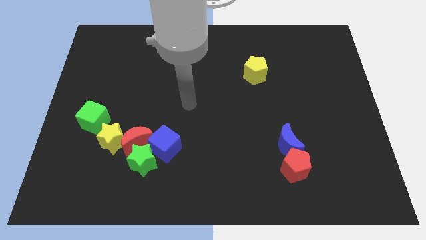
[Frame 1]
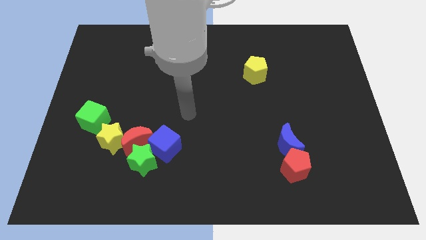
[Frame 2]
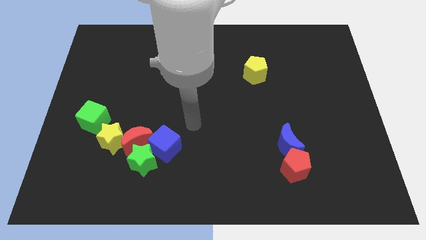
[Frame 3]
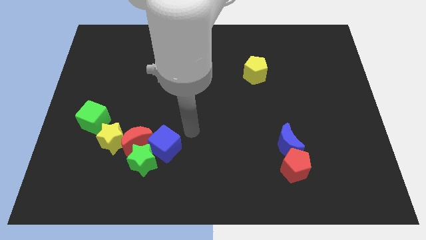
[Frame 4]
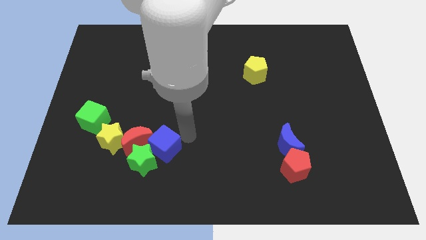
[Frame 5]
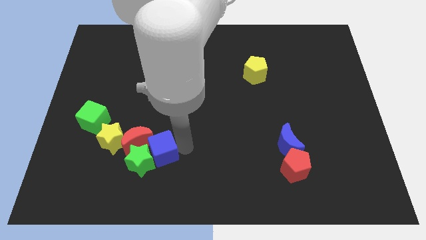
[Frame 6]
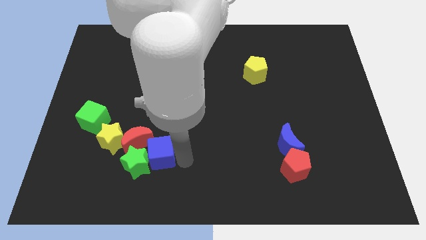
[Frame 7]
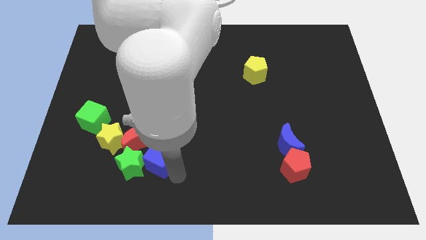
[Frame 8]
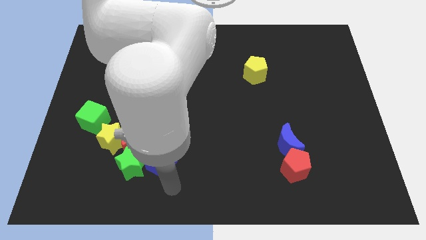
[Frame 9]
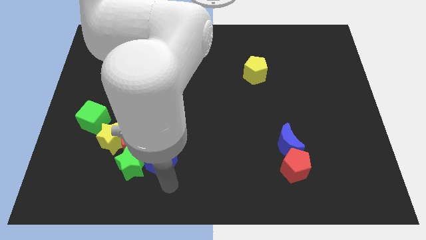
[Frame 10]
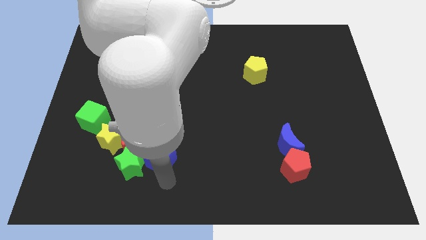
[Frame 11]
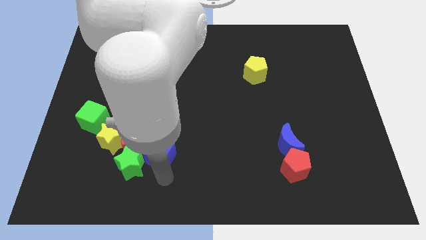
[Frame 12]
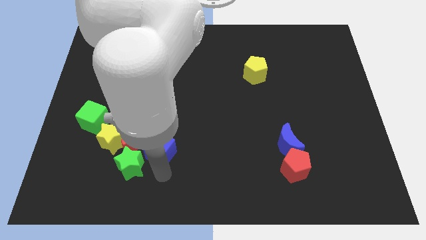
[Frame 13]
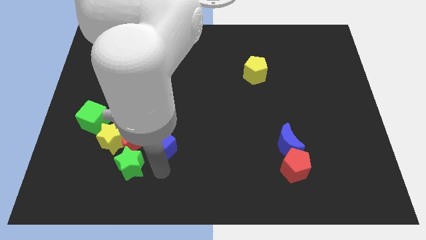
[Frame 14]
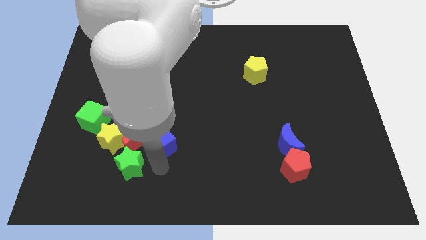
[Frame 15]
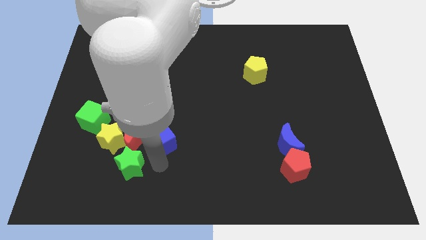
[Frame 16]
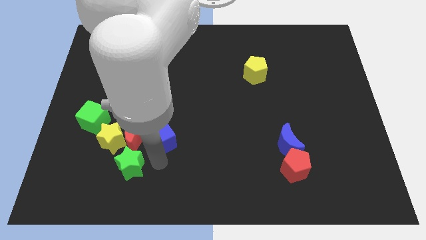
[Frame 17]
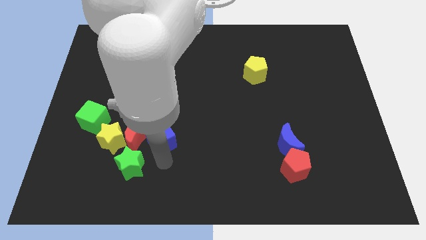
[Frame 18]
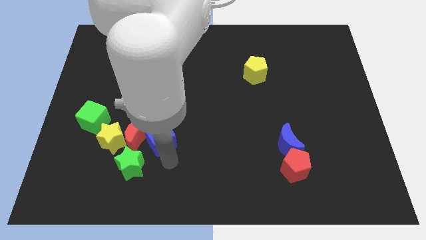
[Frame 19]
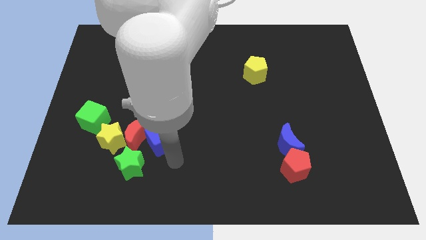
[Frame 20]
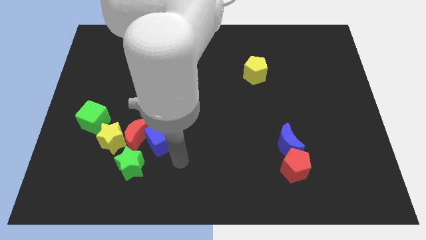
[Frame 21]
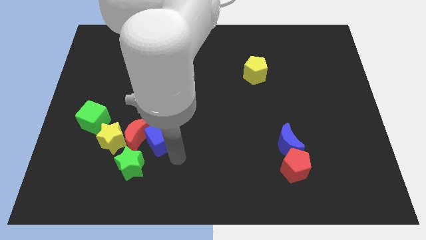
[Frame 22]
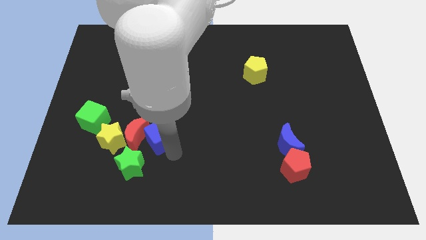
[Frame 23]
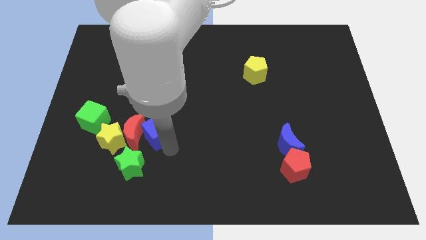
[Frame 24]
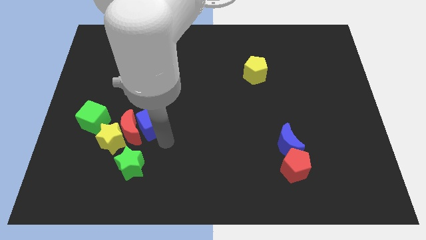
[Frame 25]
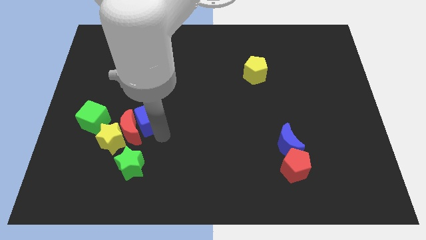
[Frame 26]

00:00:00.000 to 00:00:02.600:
slightly push the blue cube upwards and left diagonally

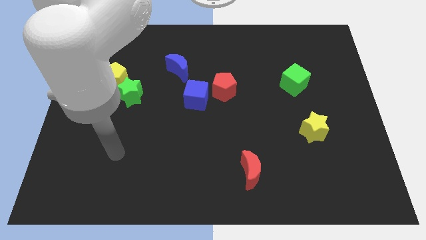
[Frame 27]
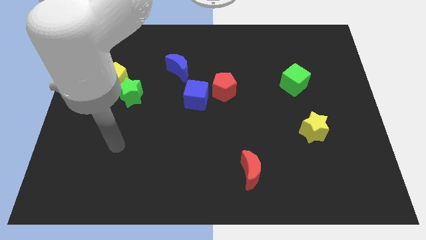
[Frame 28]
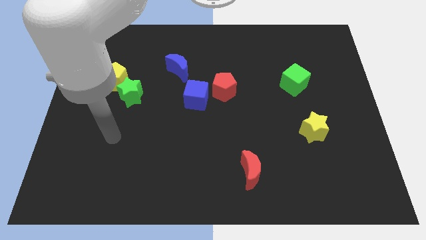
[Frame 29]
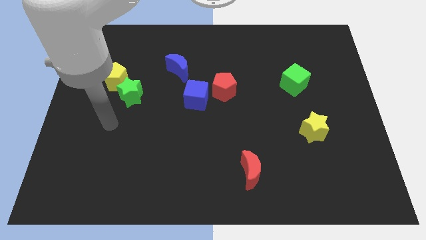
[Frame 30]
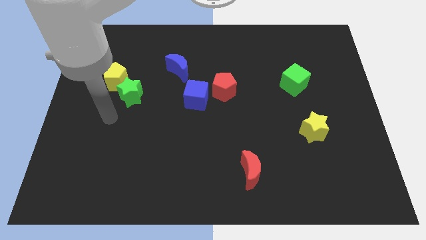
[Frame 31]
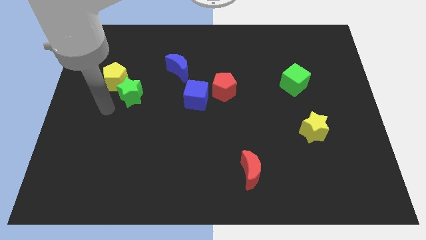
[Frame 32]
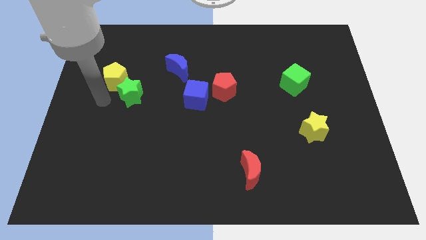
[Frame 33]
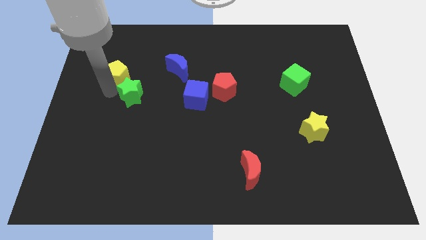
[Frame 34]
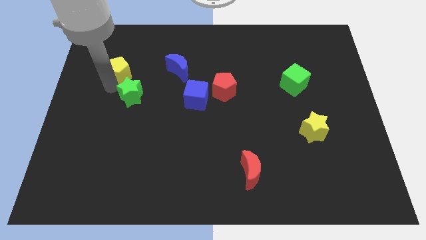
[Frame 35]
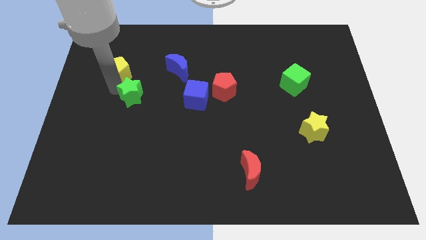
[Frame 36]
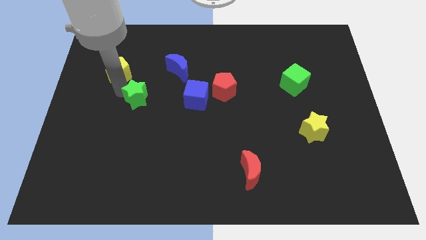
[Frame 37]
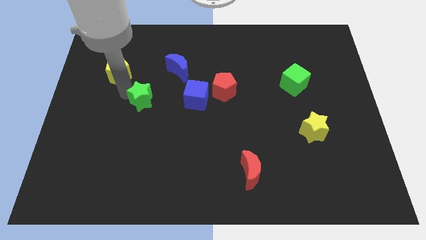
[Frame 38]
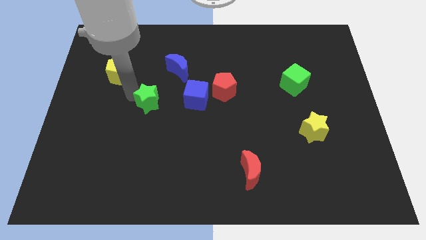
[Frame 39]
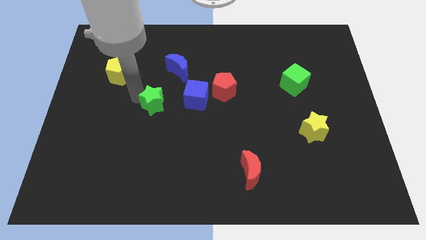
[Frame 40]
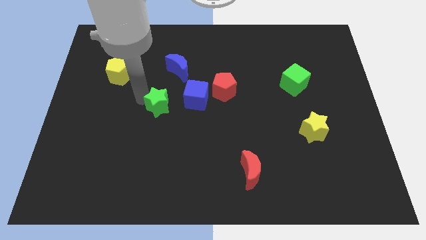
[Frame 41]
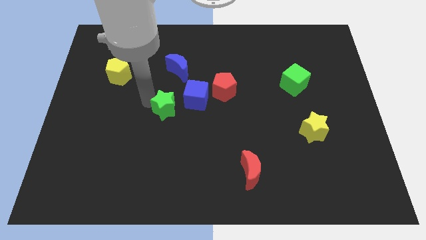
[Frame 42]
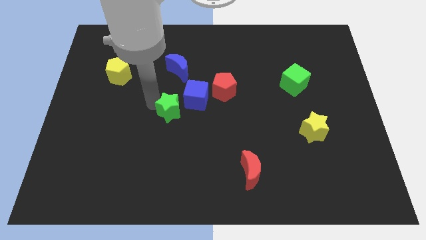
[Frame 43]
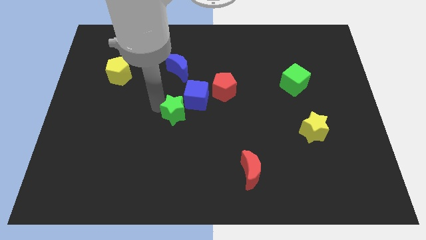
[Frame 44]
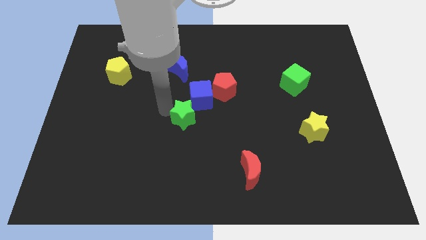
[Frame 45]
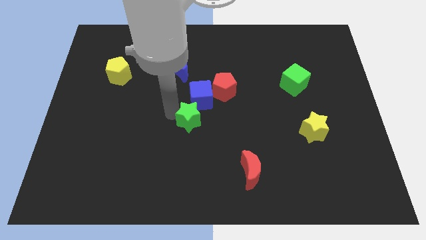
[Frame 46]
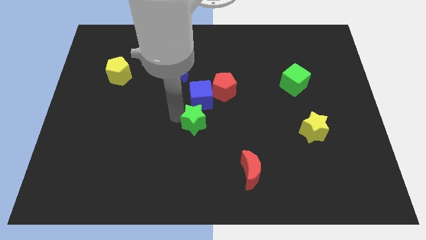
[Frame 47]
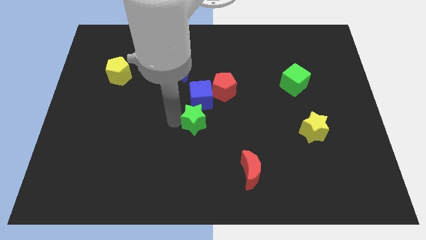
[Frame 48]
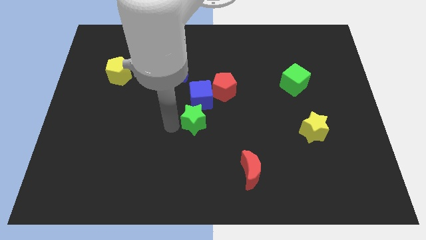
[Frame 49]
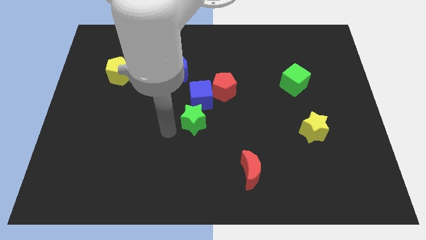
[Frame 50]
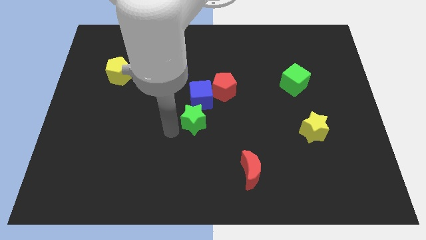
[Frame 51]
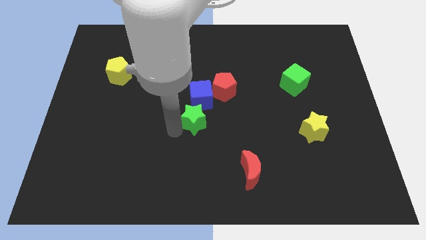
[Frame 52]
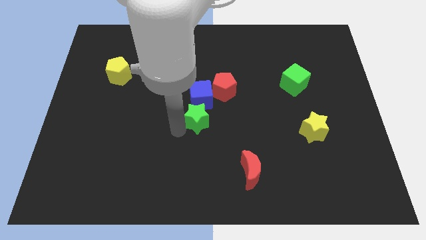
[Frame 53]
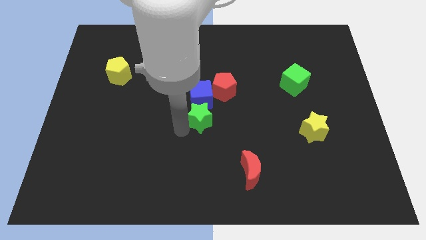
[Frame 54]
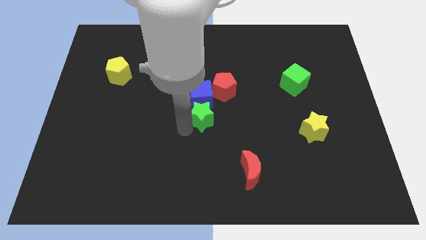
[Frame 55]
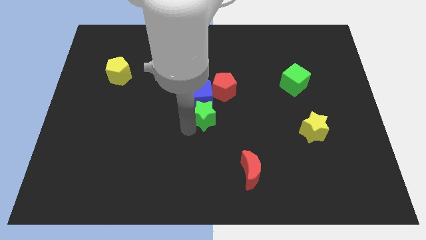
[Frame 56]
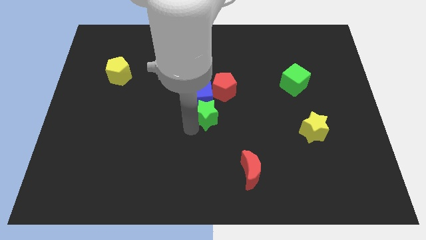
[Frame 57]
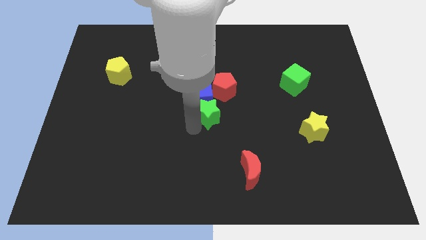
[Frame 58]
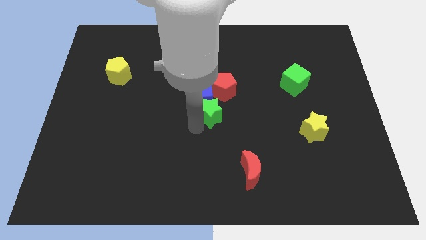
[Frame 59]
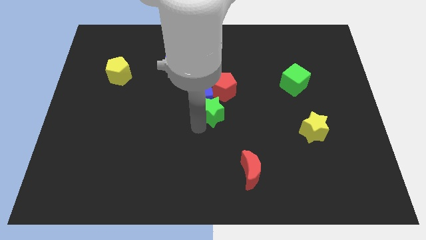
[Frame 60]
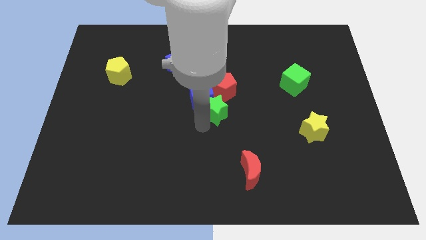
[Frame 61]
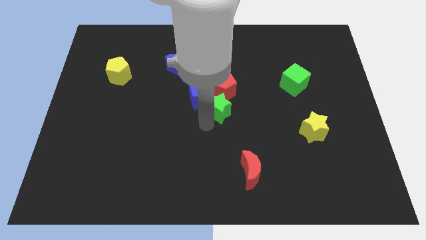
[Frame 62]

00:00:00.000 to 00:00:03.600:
push the green star right

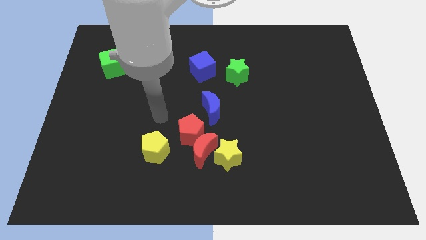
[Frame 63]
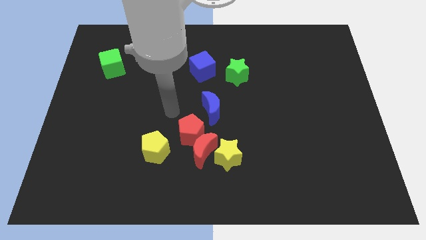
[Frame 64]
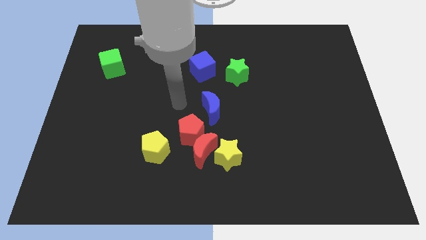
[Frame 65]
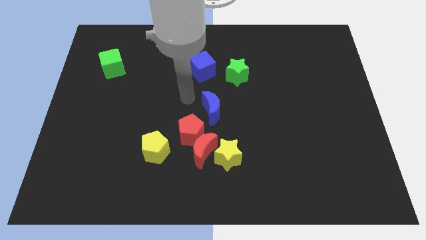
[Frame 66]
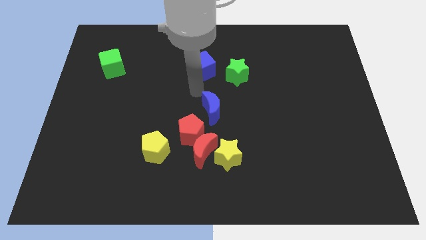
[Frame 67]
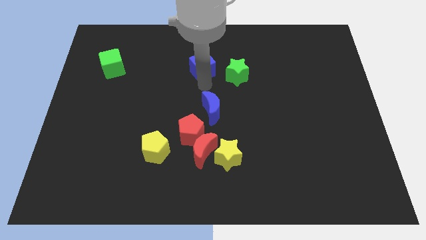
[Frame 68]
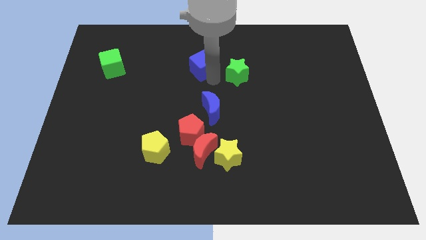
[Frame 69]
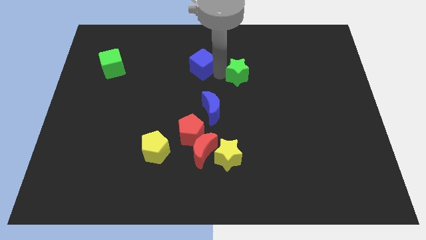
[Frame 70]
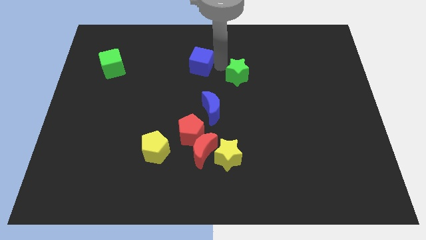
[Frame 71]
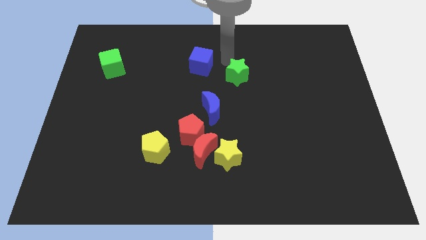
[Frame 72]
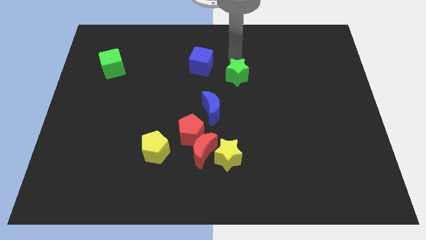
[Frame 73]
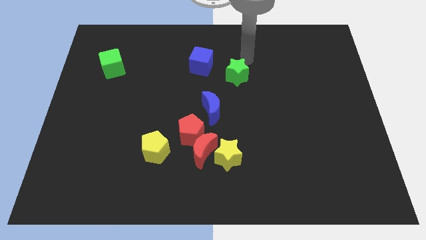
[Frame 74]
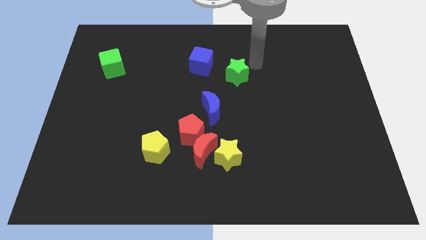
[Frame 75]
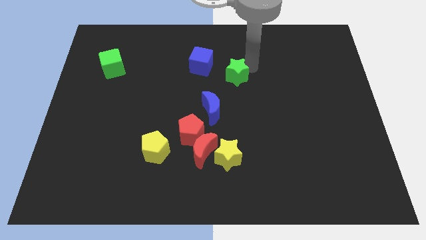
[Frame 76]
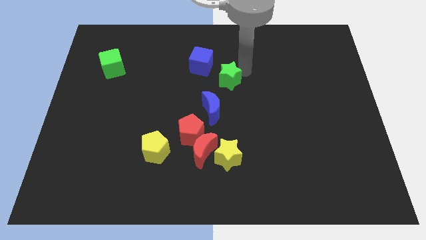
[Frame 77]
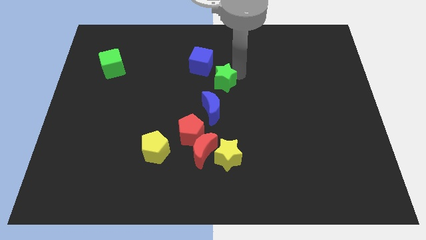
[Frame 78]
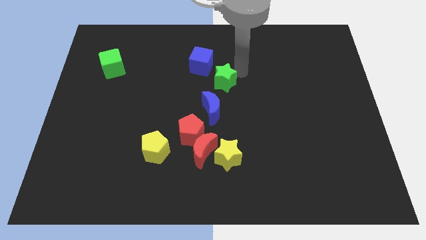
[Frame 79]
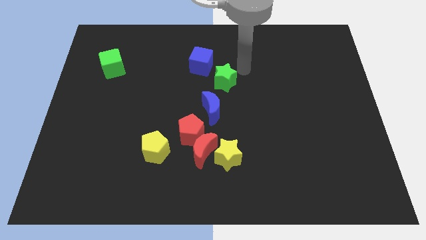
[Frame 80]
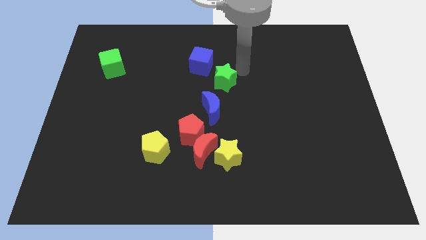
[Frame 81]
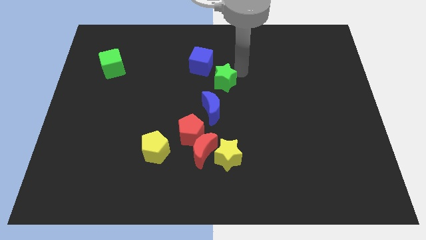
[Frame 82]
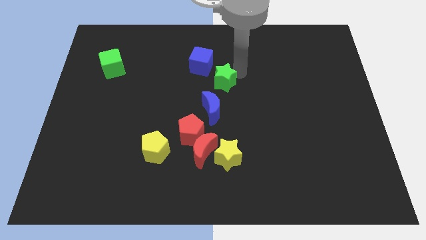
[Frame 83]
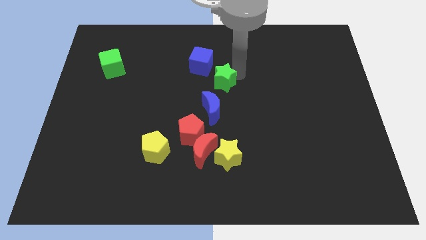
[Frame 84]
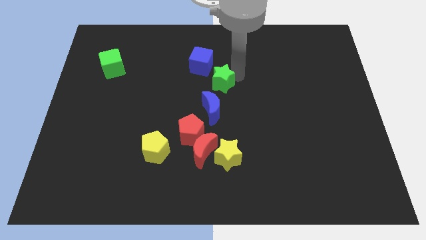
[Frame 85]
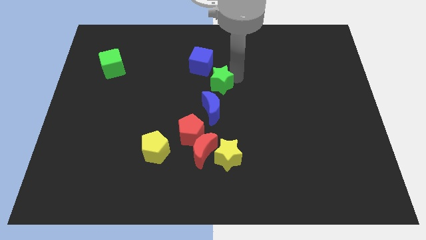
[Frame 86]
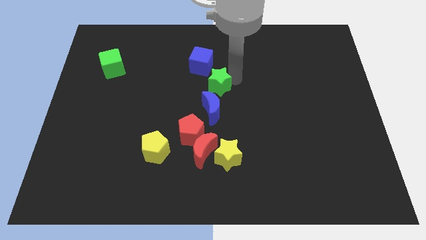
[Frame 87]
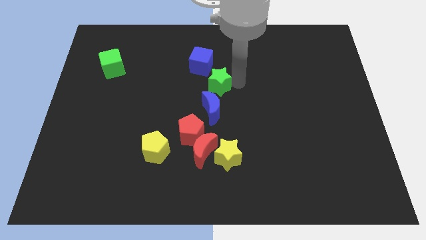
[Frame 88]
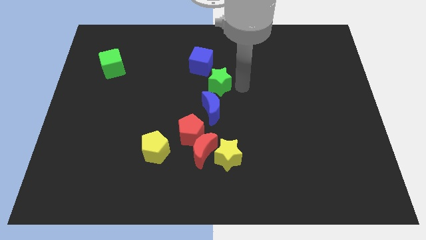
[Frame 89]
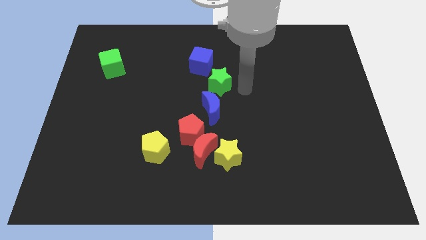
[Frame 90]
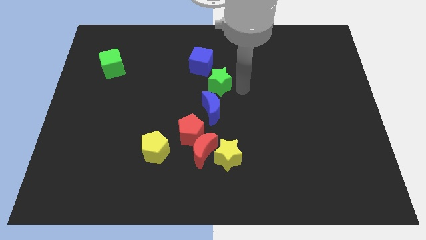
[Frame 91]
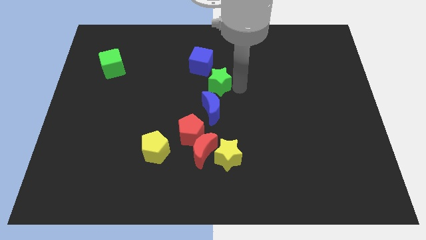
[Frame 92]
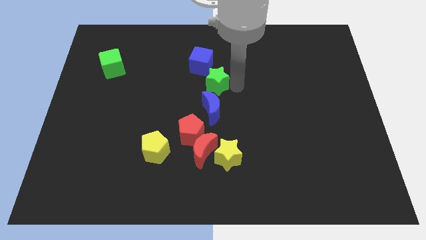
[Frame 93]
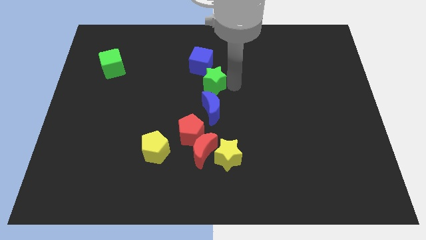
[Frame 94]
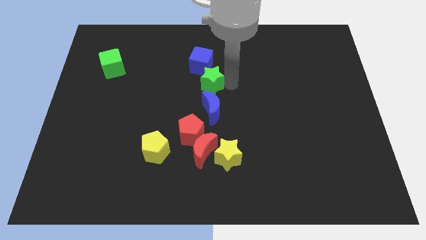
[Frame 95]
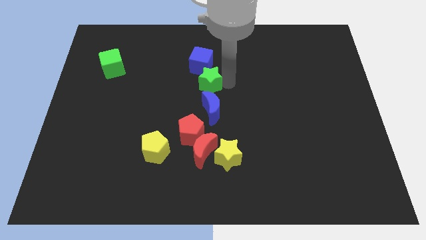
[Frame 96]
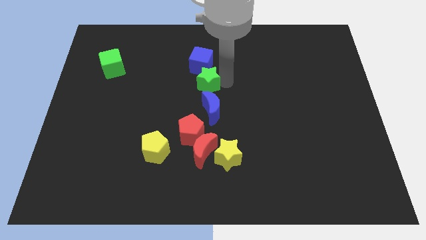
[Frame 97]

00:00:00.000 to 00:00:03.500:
slide the green star slightly left
